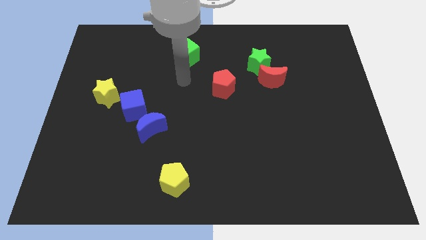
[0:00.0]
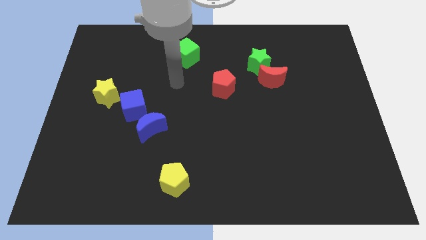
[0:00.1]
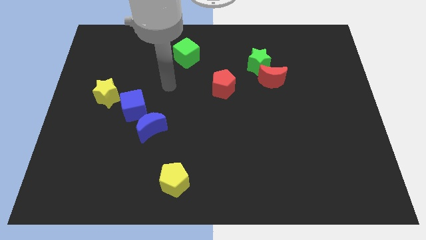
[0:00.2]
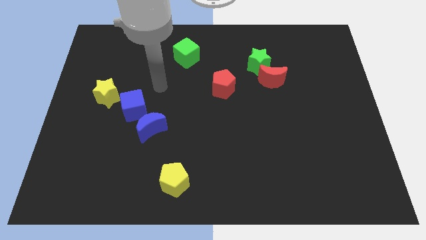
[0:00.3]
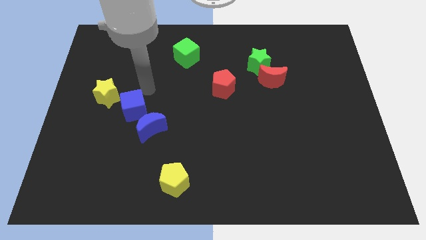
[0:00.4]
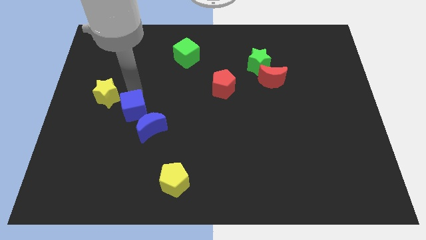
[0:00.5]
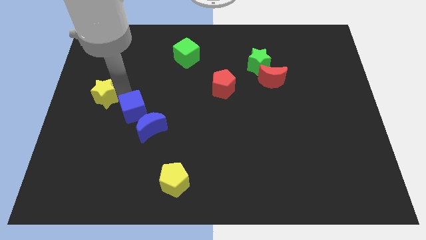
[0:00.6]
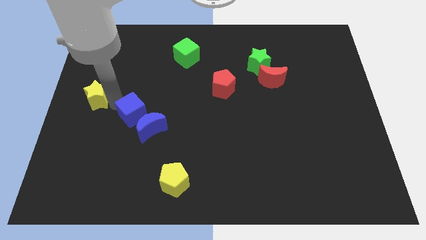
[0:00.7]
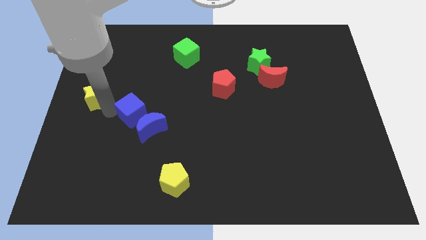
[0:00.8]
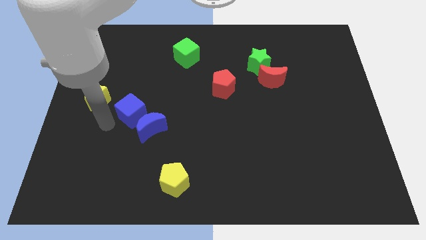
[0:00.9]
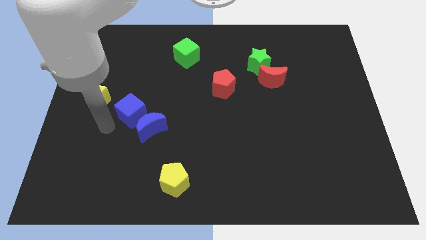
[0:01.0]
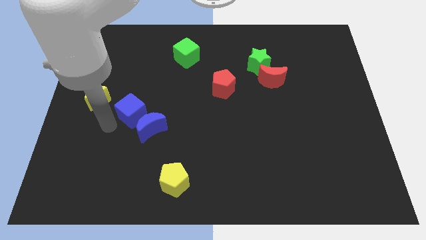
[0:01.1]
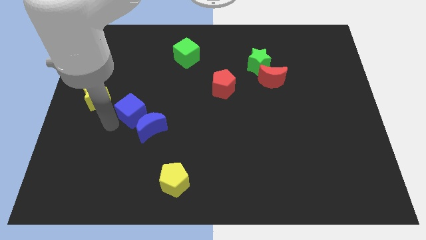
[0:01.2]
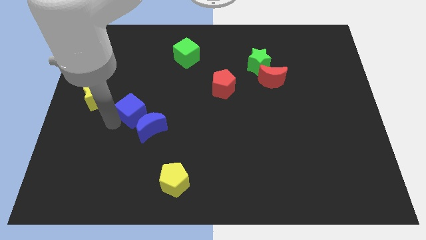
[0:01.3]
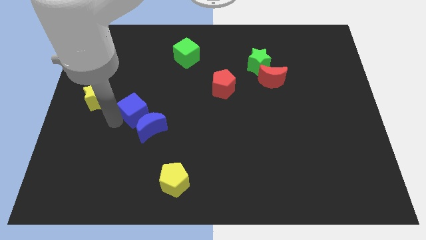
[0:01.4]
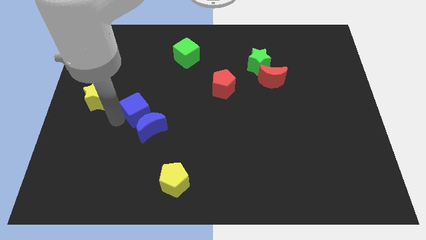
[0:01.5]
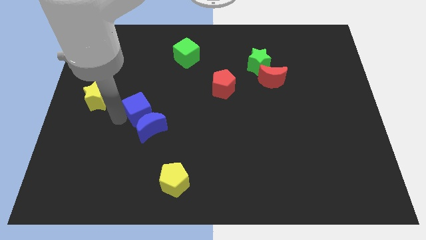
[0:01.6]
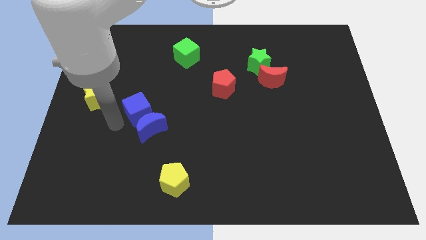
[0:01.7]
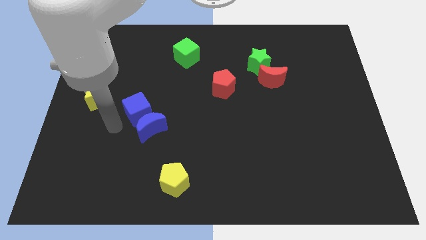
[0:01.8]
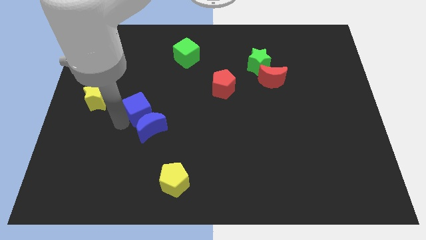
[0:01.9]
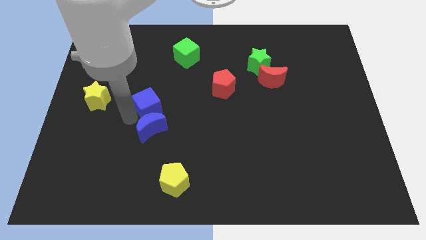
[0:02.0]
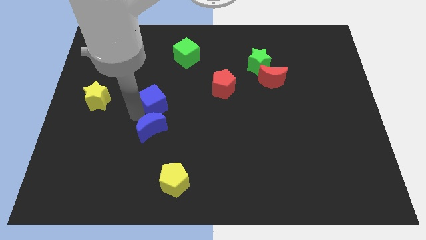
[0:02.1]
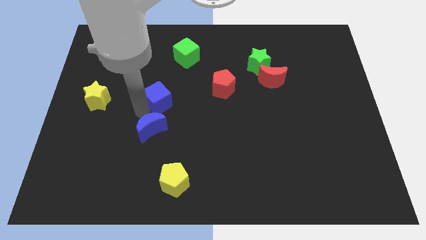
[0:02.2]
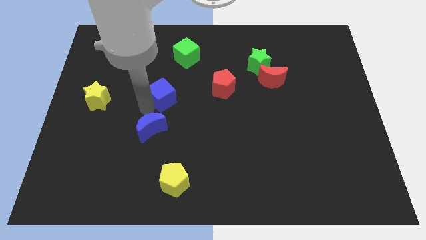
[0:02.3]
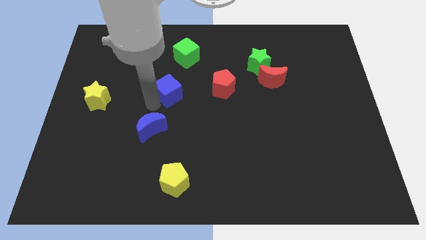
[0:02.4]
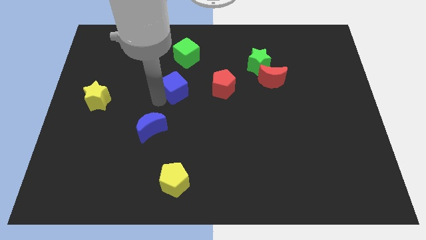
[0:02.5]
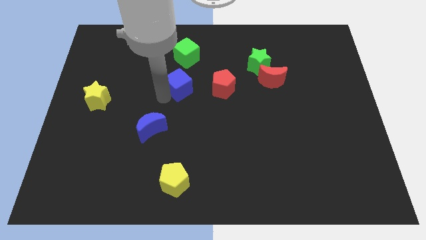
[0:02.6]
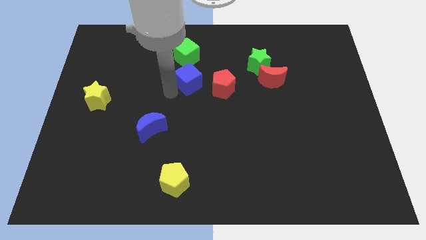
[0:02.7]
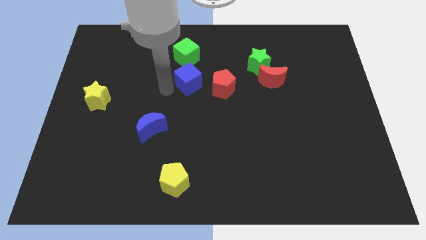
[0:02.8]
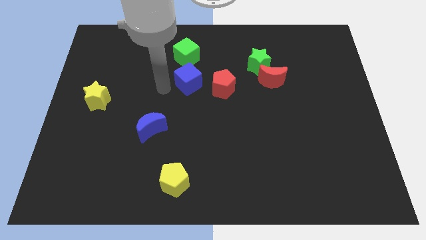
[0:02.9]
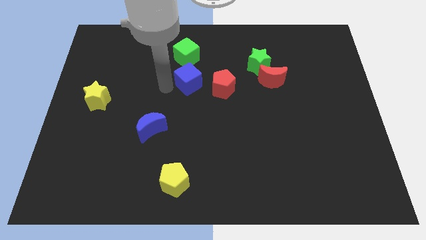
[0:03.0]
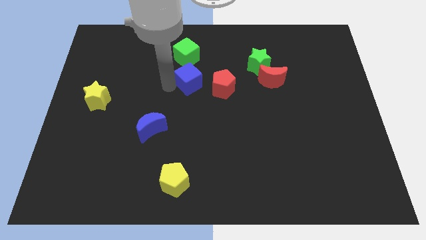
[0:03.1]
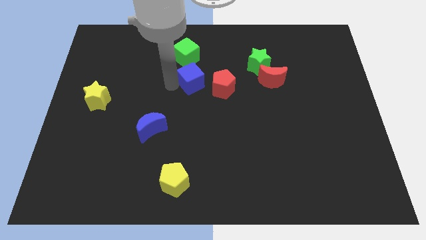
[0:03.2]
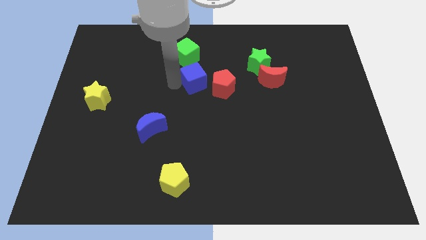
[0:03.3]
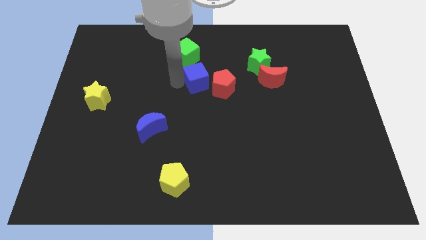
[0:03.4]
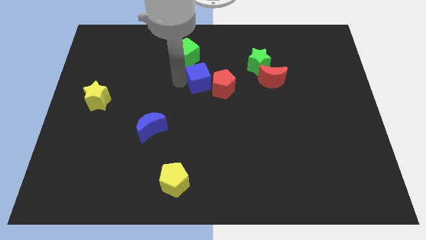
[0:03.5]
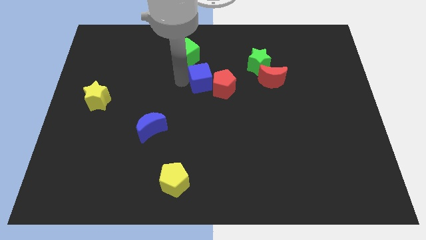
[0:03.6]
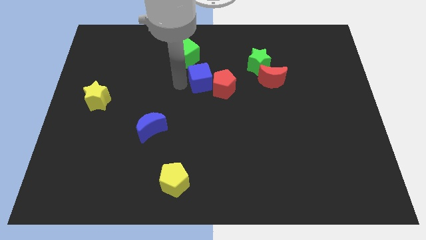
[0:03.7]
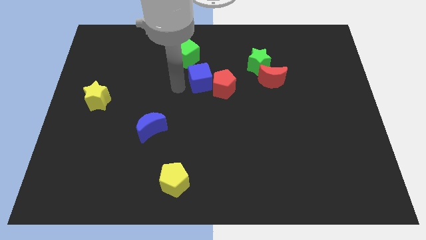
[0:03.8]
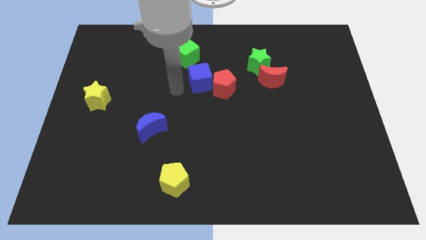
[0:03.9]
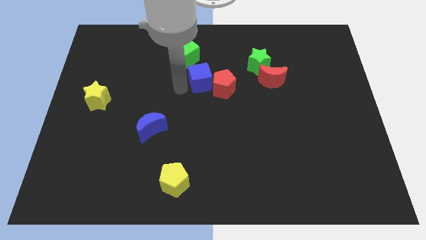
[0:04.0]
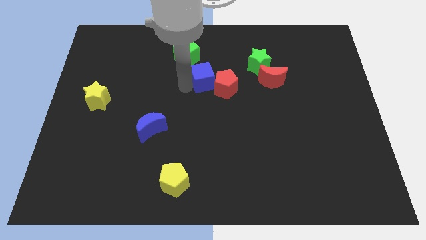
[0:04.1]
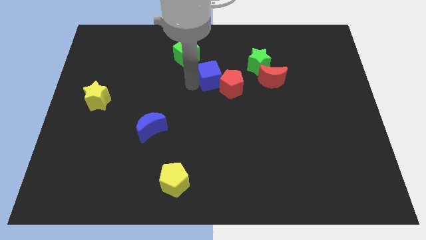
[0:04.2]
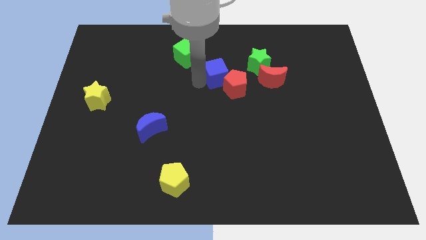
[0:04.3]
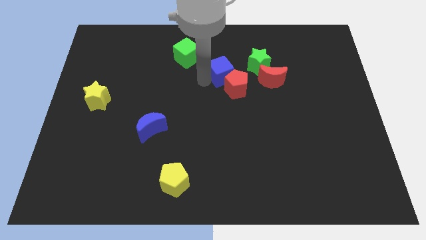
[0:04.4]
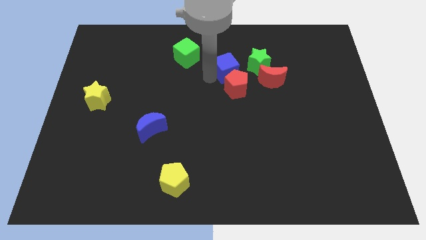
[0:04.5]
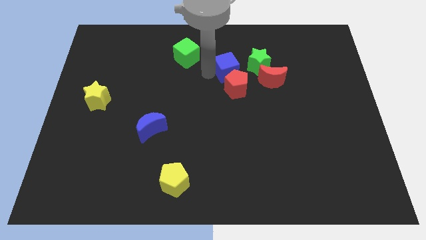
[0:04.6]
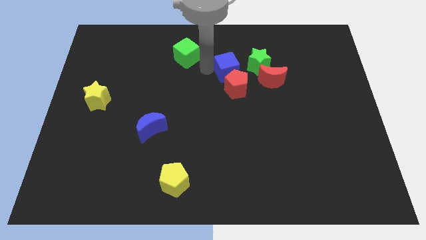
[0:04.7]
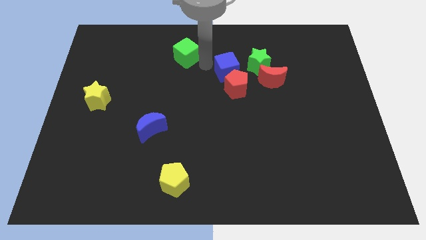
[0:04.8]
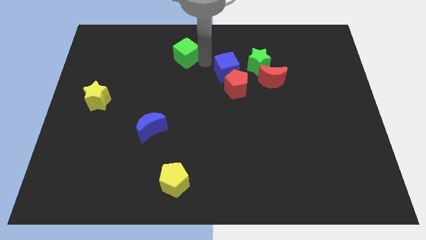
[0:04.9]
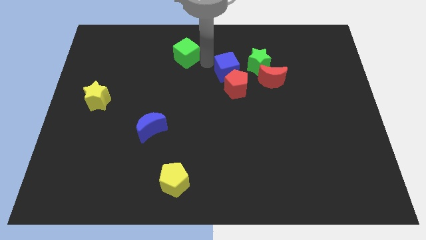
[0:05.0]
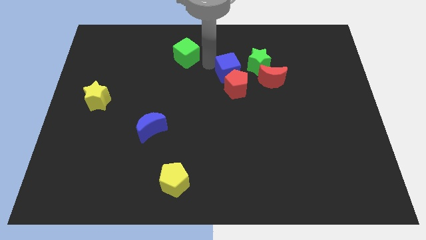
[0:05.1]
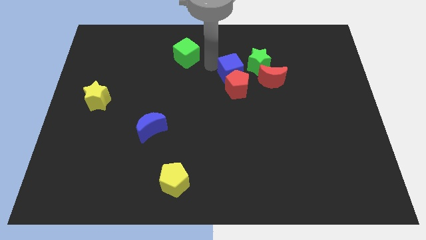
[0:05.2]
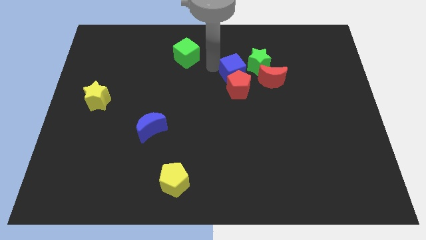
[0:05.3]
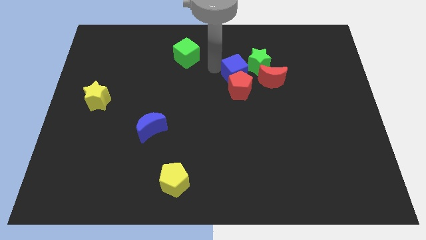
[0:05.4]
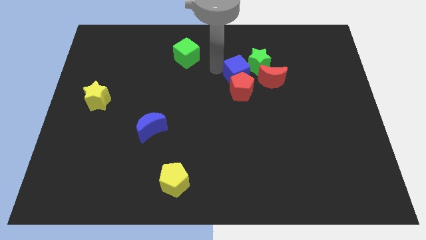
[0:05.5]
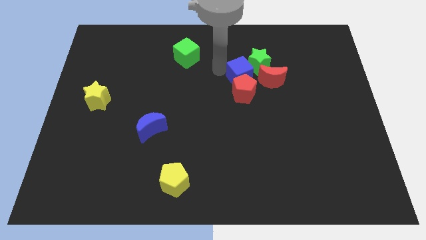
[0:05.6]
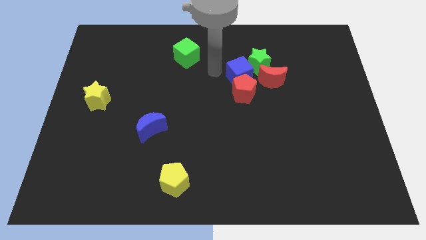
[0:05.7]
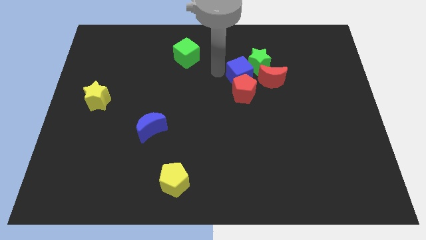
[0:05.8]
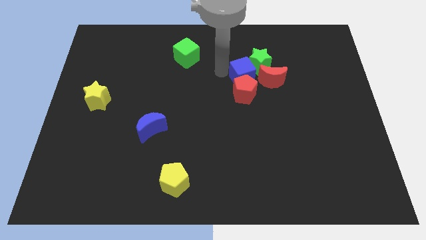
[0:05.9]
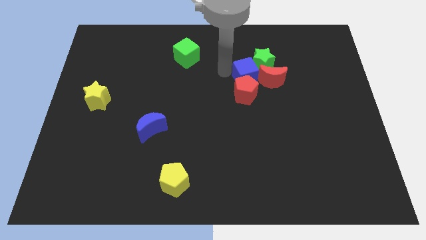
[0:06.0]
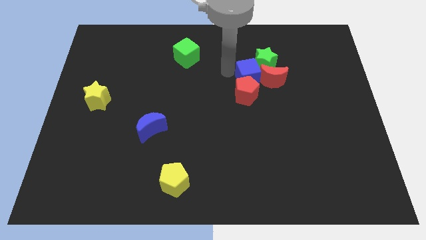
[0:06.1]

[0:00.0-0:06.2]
move the blue cube close to the red moon
